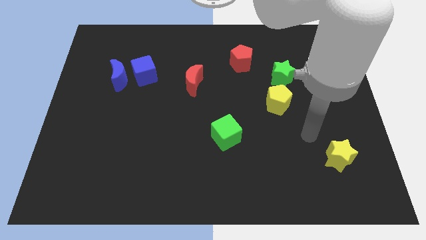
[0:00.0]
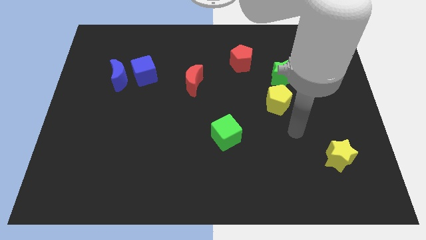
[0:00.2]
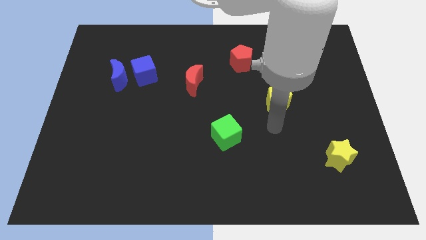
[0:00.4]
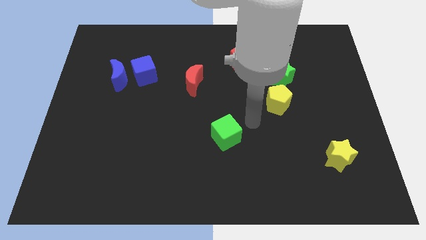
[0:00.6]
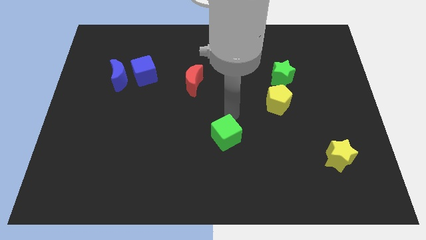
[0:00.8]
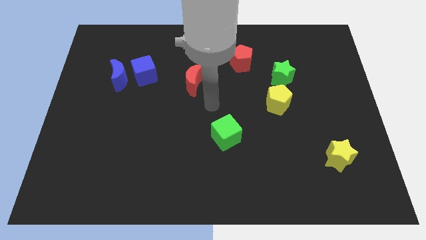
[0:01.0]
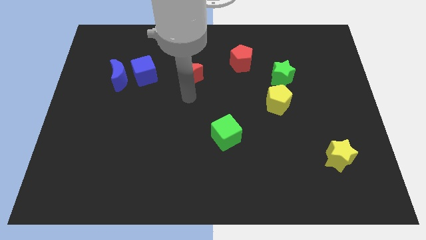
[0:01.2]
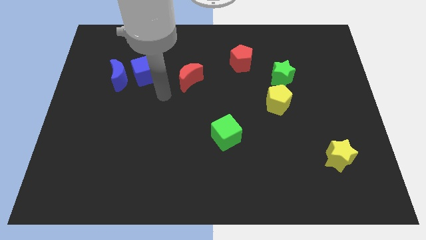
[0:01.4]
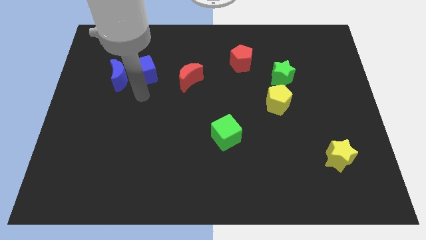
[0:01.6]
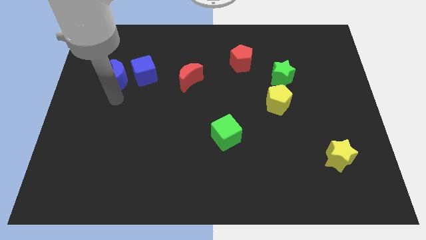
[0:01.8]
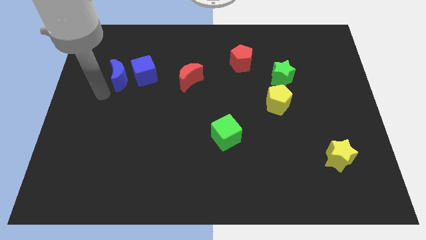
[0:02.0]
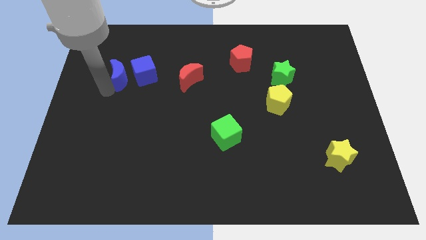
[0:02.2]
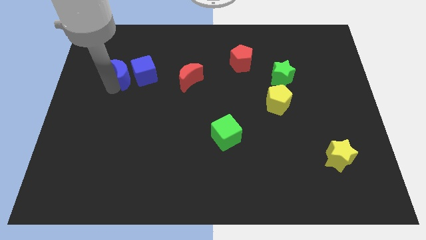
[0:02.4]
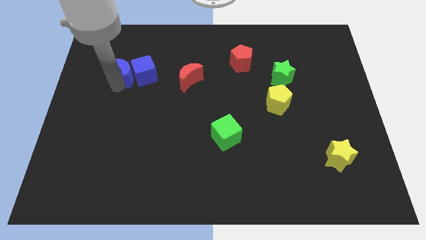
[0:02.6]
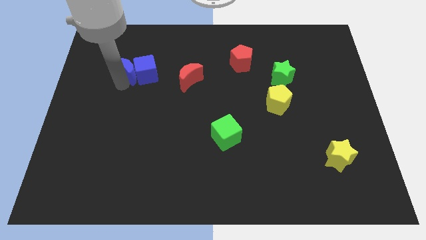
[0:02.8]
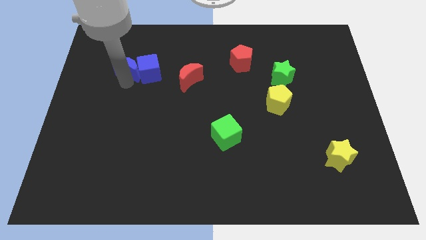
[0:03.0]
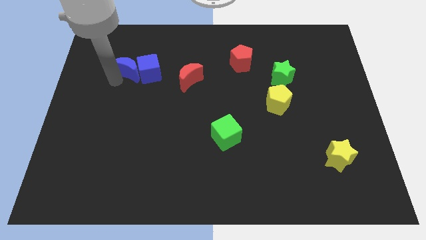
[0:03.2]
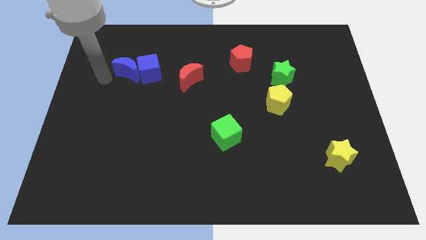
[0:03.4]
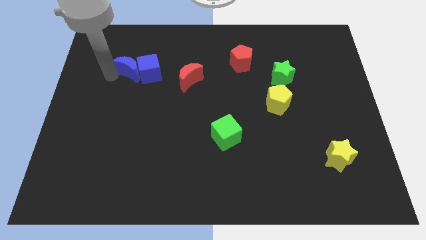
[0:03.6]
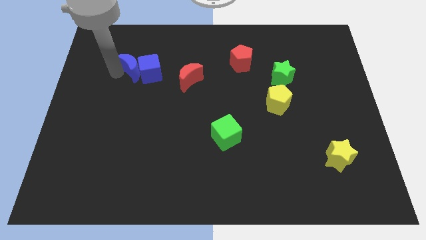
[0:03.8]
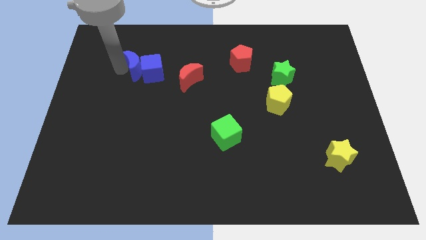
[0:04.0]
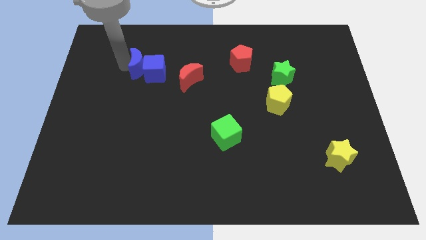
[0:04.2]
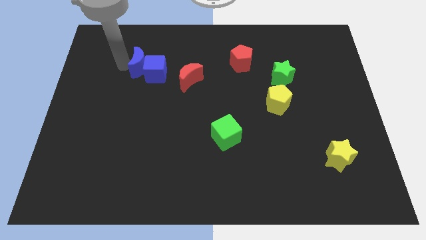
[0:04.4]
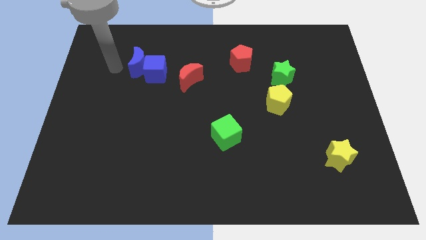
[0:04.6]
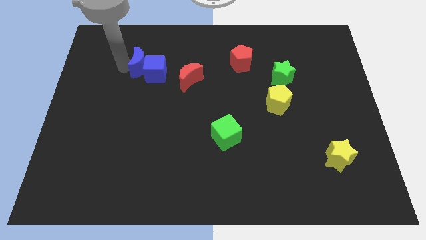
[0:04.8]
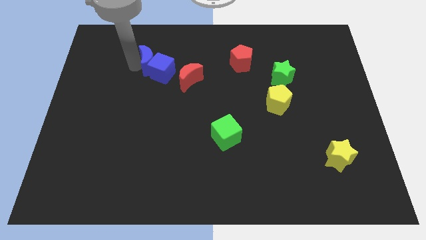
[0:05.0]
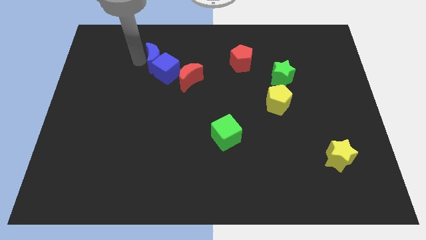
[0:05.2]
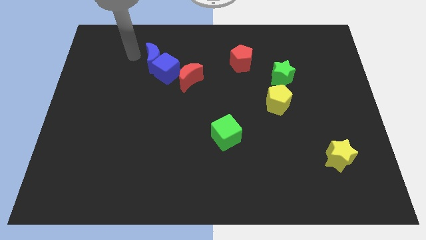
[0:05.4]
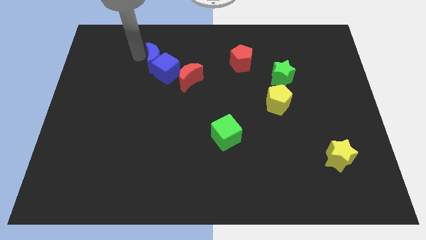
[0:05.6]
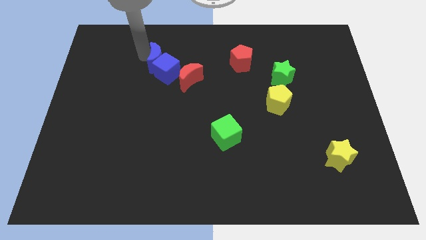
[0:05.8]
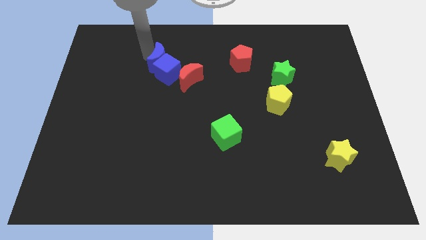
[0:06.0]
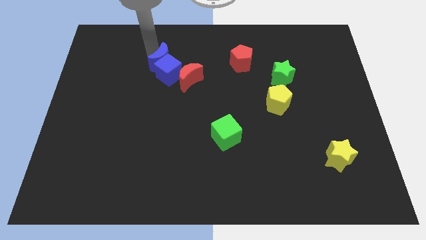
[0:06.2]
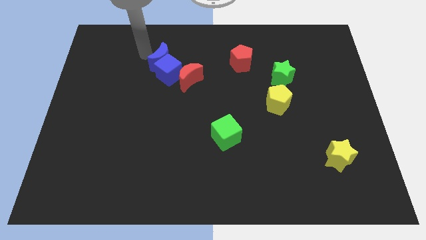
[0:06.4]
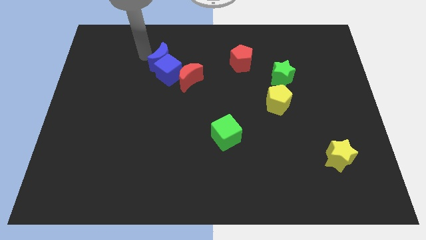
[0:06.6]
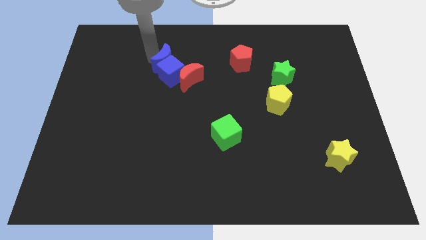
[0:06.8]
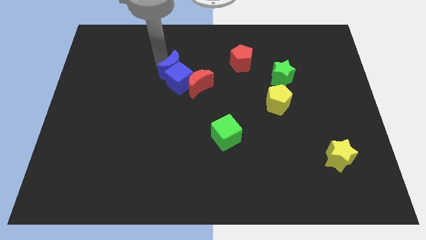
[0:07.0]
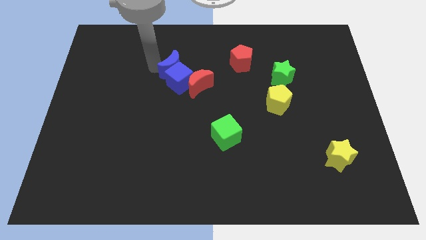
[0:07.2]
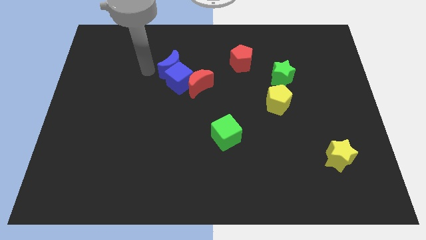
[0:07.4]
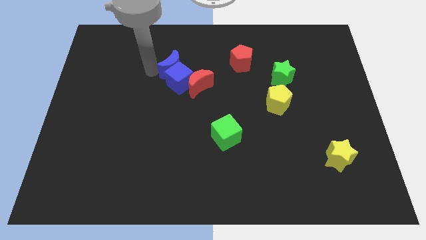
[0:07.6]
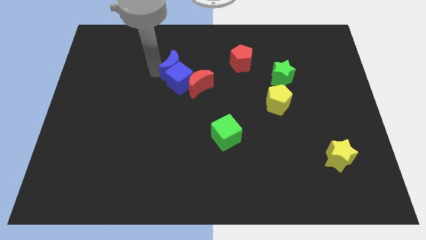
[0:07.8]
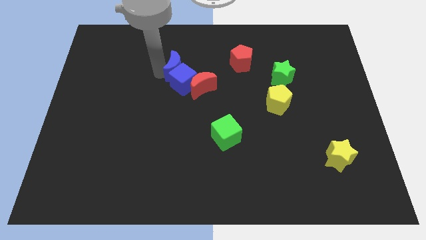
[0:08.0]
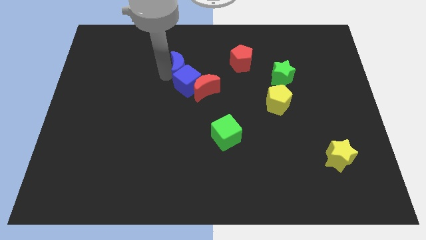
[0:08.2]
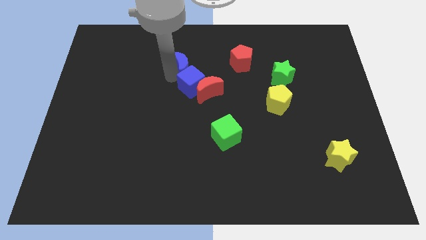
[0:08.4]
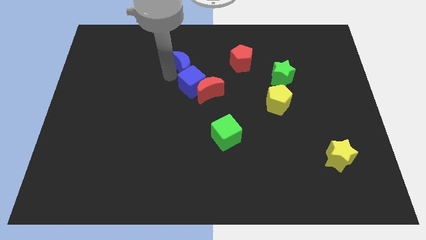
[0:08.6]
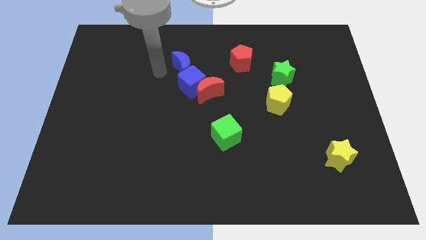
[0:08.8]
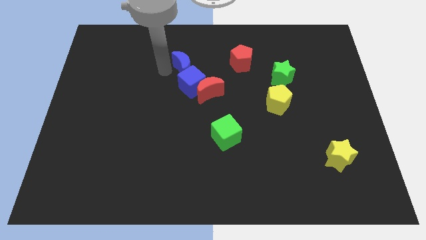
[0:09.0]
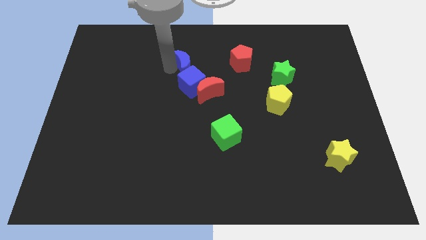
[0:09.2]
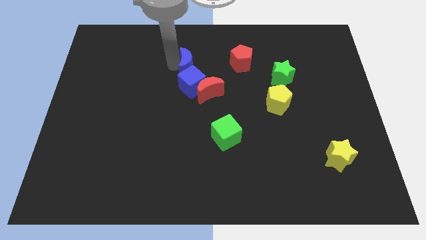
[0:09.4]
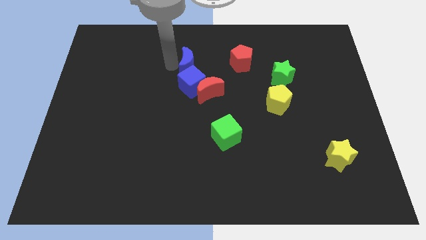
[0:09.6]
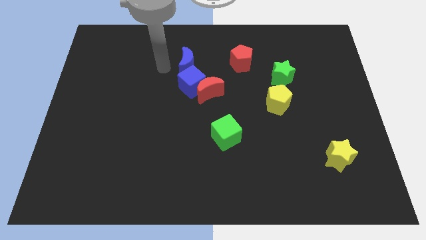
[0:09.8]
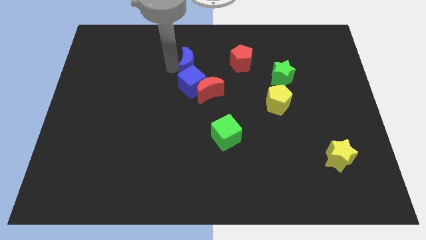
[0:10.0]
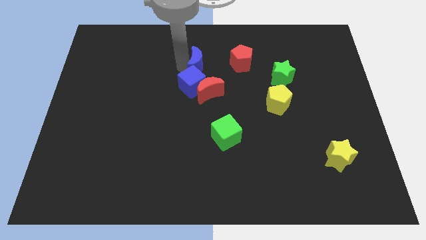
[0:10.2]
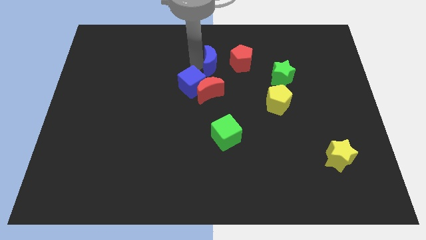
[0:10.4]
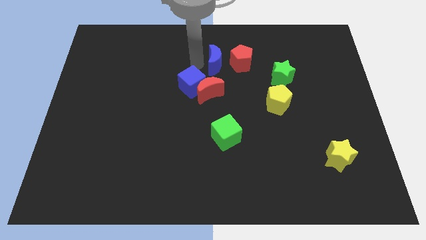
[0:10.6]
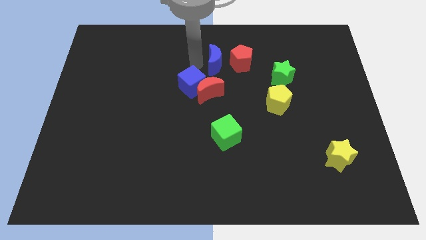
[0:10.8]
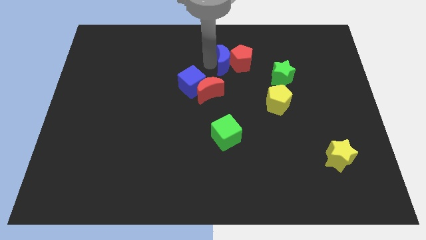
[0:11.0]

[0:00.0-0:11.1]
push the blue moon to the red pentagon
